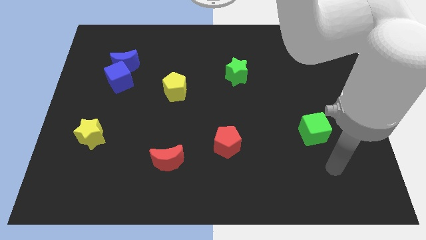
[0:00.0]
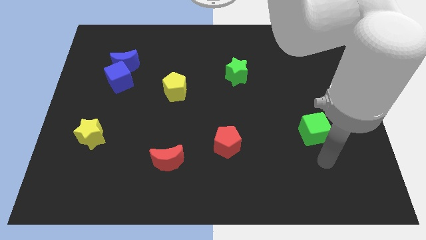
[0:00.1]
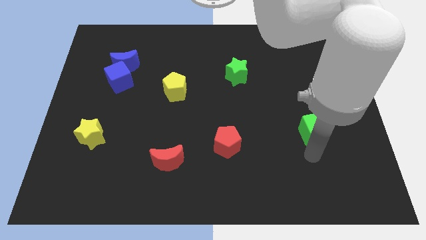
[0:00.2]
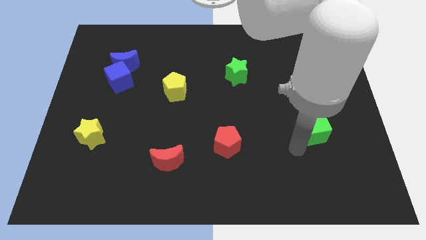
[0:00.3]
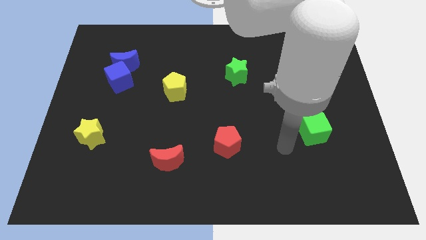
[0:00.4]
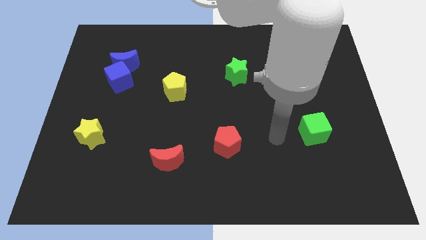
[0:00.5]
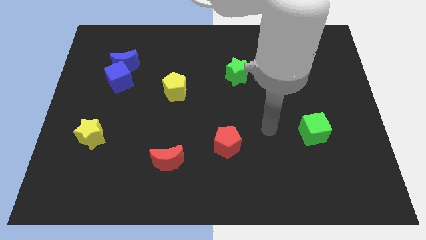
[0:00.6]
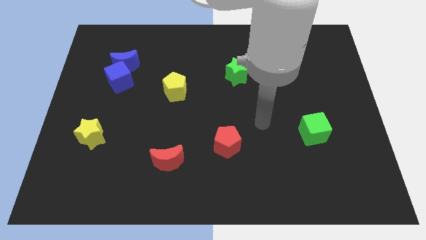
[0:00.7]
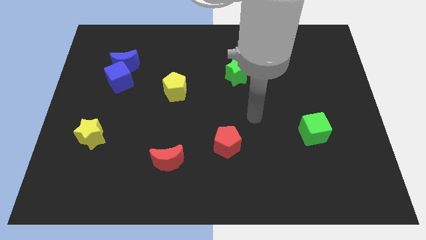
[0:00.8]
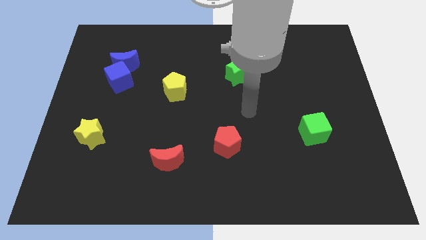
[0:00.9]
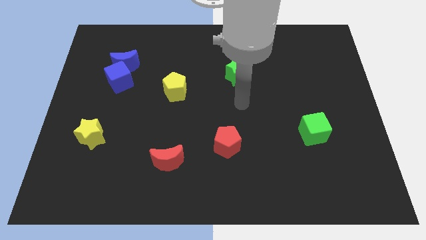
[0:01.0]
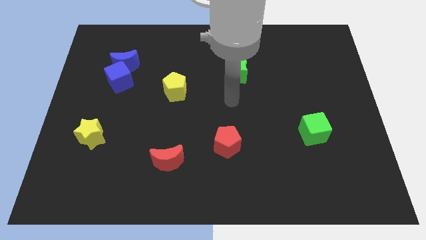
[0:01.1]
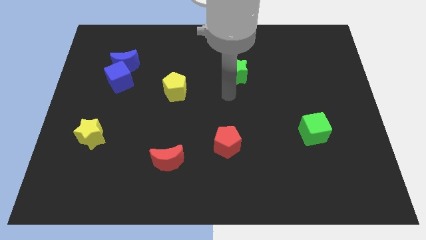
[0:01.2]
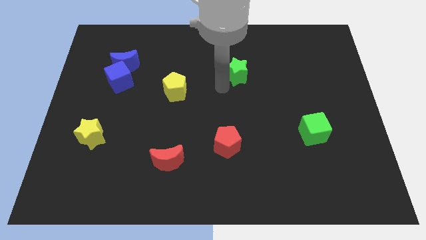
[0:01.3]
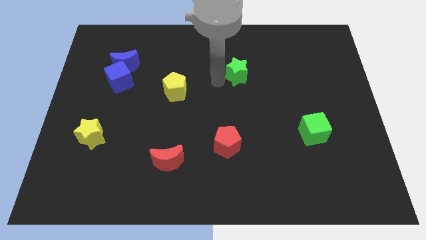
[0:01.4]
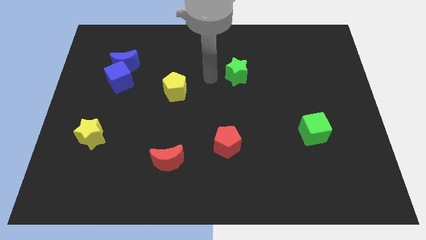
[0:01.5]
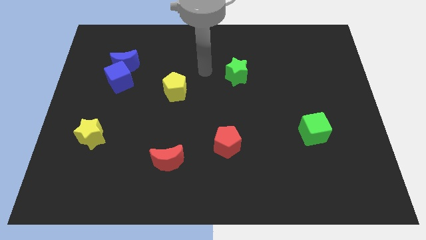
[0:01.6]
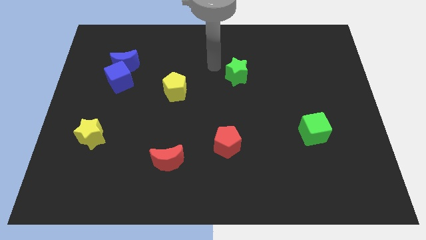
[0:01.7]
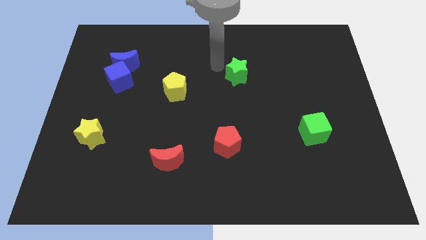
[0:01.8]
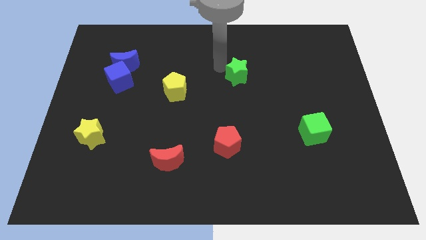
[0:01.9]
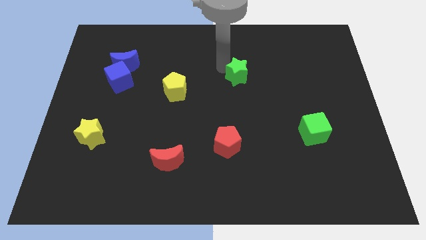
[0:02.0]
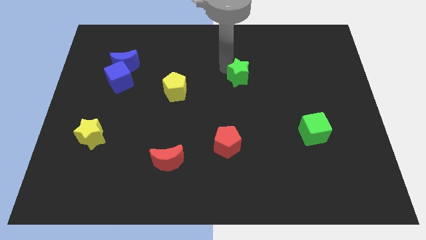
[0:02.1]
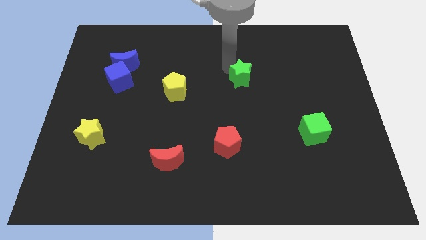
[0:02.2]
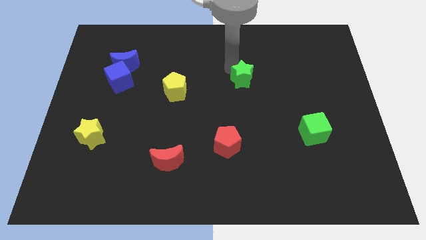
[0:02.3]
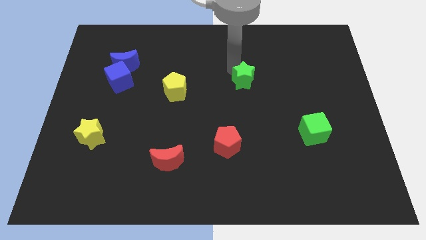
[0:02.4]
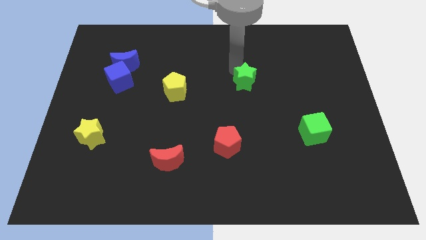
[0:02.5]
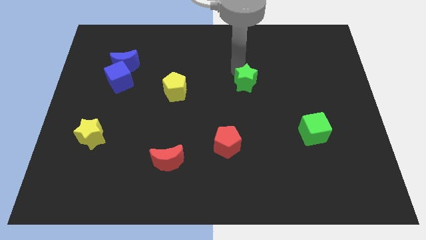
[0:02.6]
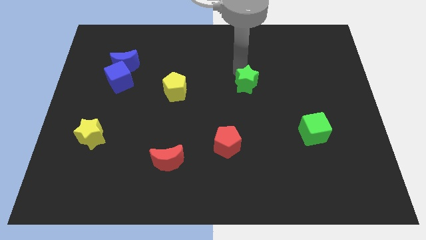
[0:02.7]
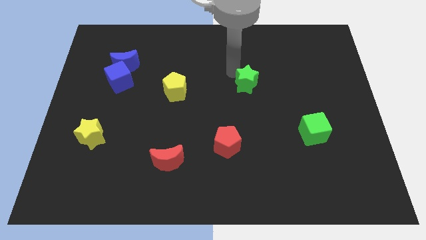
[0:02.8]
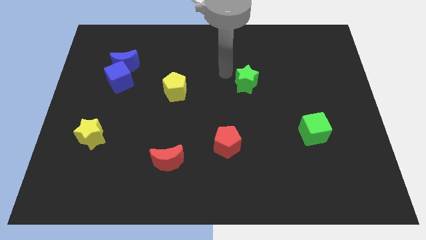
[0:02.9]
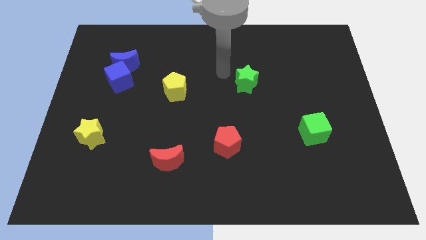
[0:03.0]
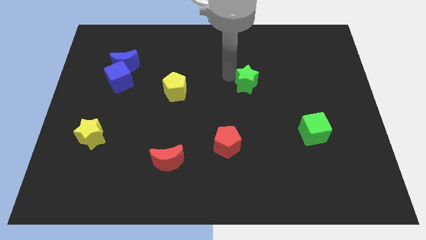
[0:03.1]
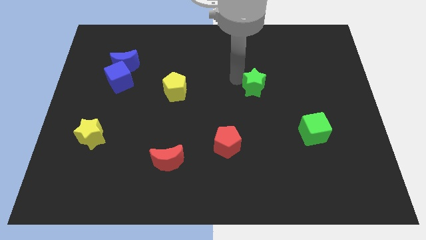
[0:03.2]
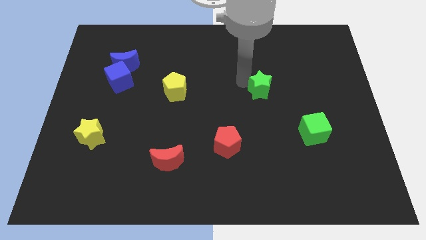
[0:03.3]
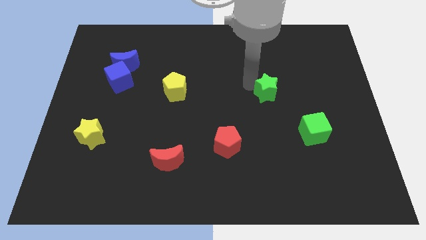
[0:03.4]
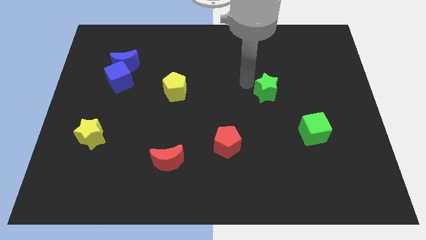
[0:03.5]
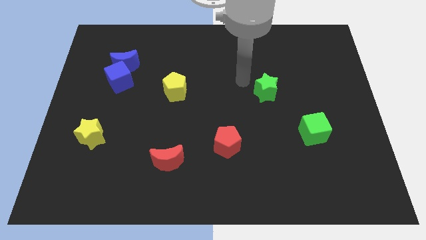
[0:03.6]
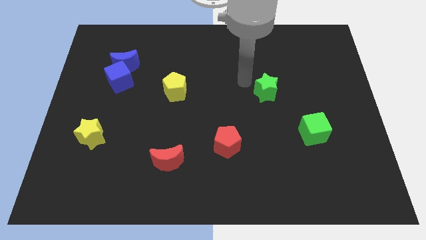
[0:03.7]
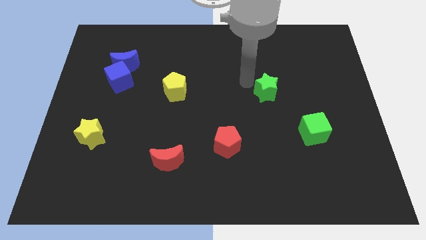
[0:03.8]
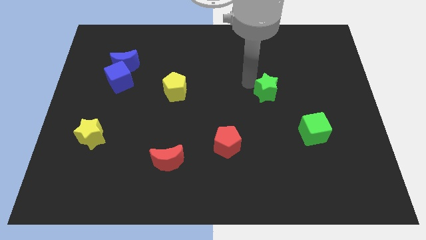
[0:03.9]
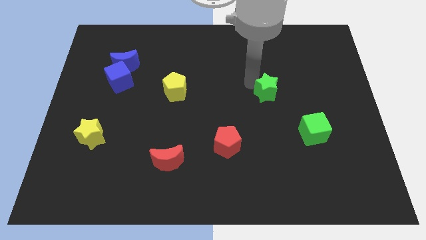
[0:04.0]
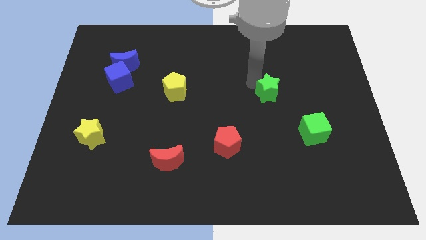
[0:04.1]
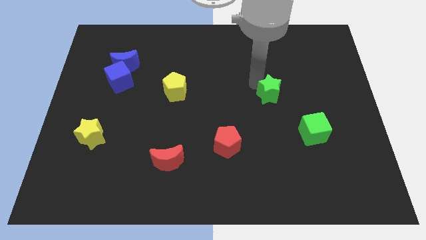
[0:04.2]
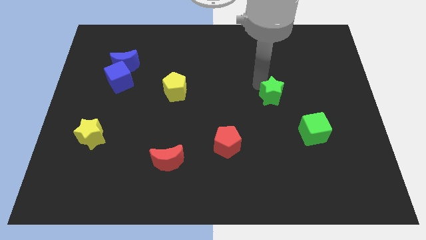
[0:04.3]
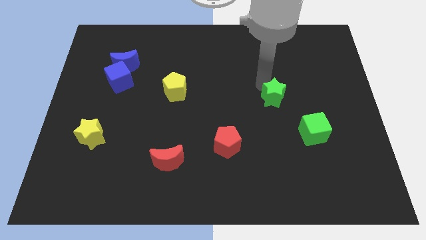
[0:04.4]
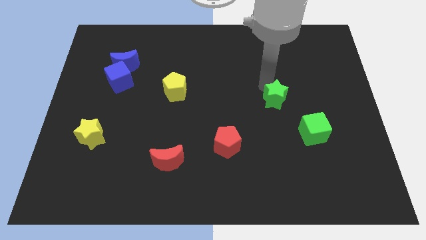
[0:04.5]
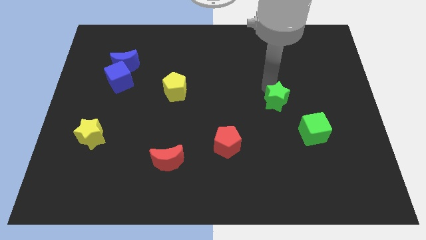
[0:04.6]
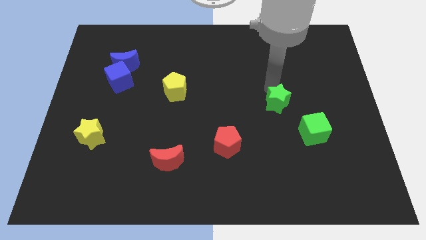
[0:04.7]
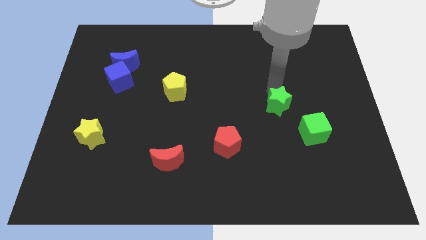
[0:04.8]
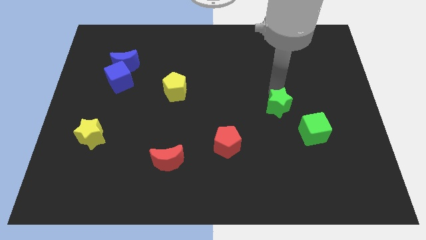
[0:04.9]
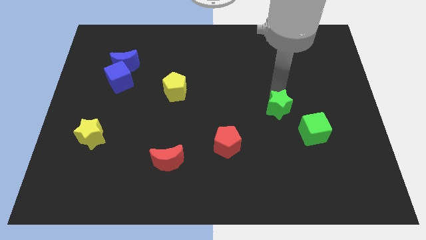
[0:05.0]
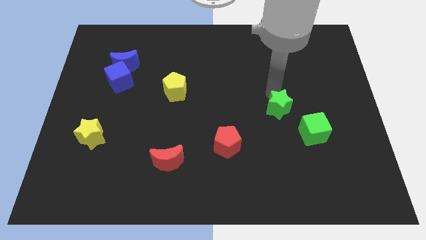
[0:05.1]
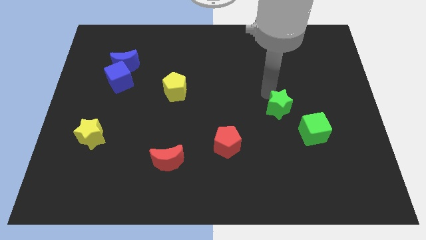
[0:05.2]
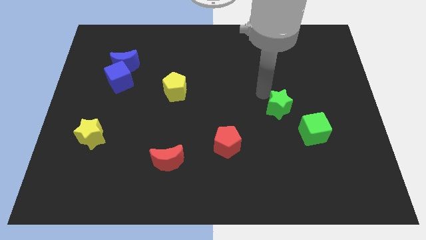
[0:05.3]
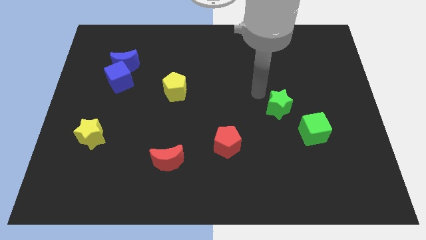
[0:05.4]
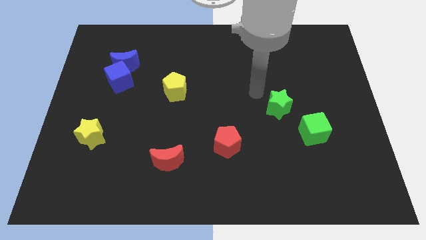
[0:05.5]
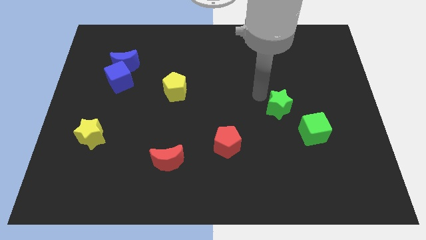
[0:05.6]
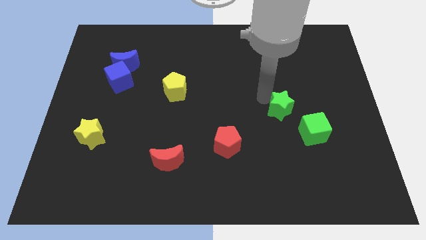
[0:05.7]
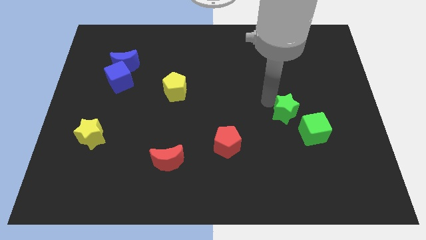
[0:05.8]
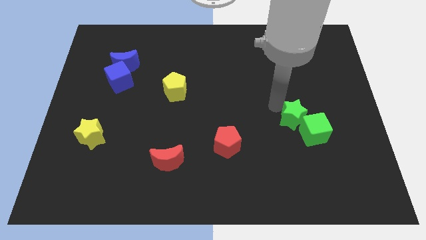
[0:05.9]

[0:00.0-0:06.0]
push the green star towards the green cube

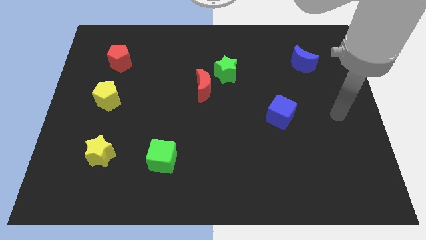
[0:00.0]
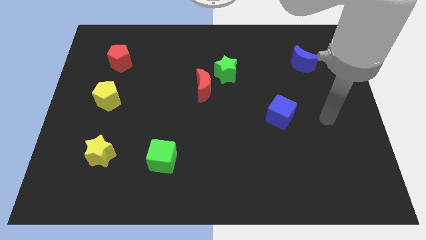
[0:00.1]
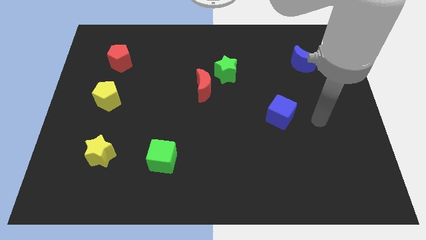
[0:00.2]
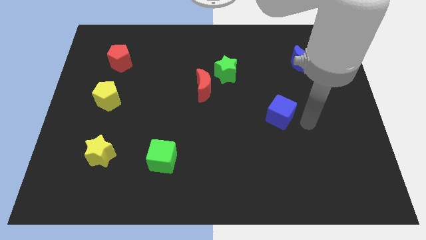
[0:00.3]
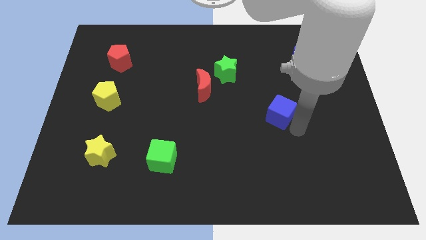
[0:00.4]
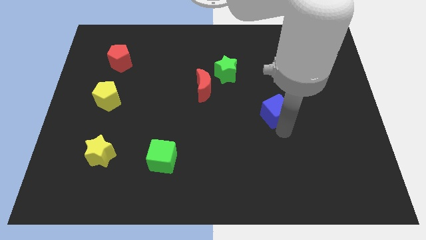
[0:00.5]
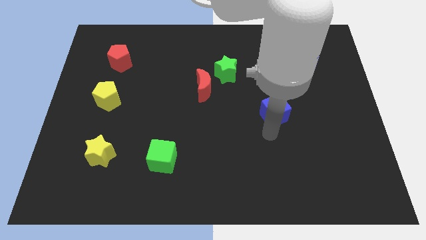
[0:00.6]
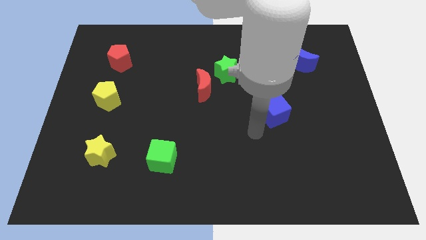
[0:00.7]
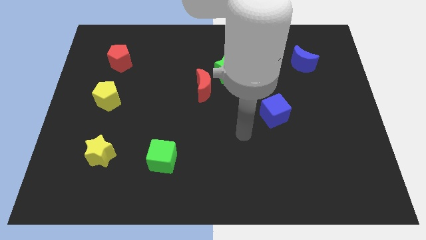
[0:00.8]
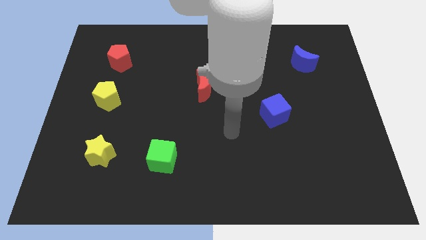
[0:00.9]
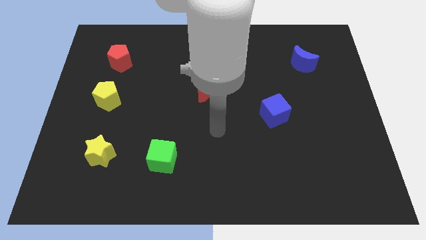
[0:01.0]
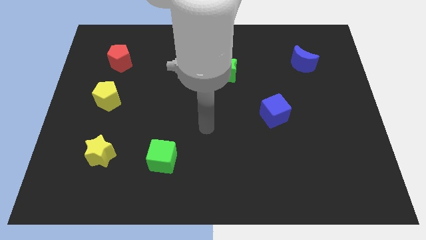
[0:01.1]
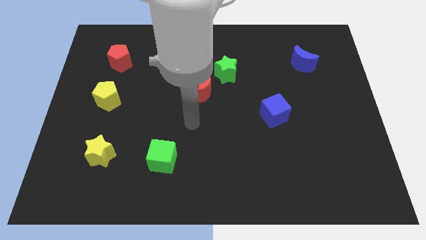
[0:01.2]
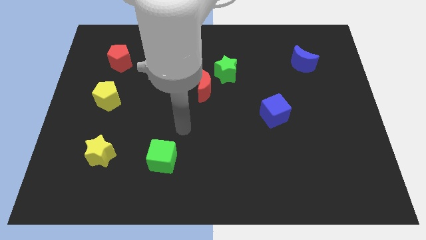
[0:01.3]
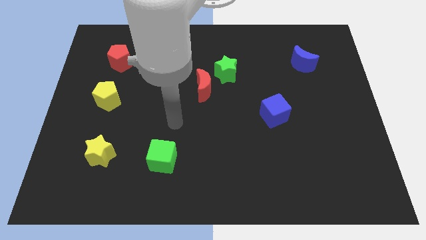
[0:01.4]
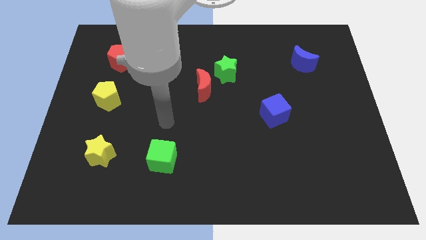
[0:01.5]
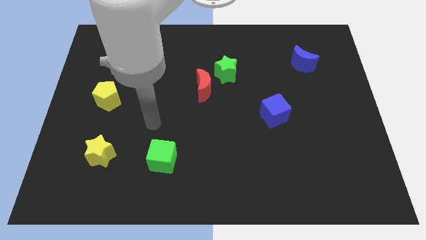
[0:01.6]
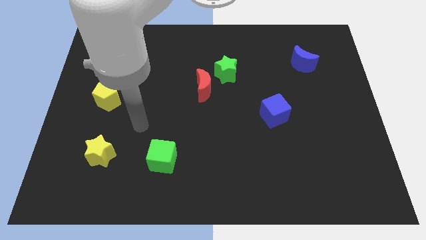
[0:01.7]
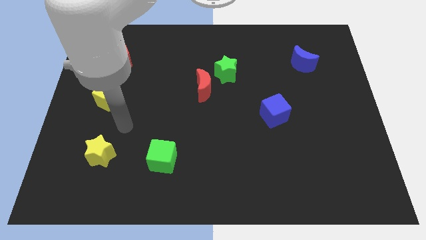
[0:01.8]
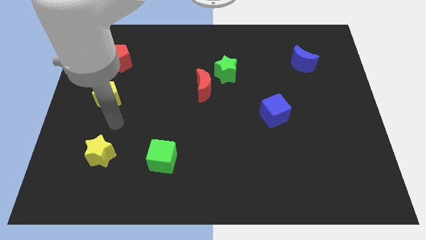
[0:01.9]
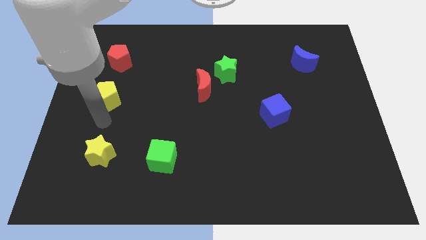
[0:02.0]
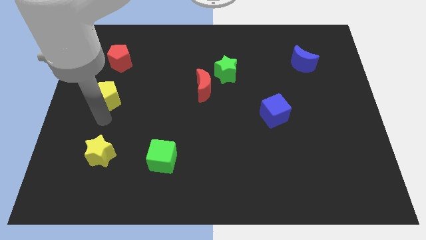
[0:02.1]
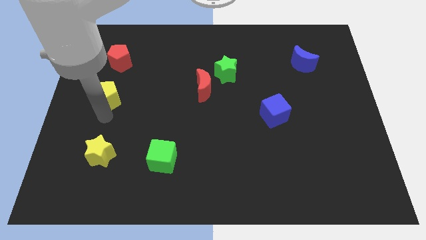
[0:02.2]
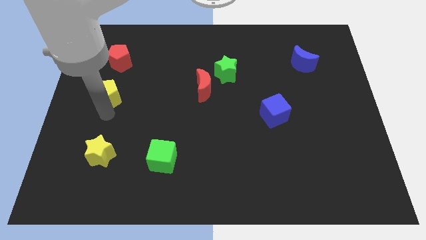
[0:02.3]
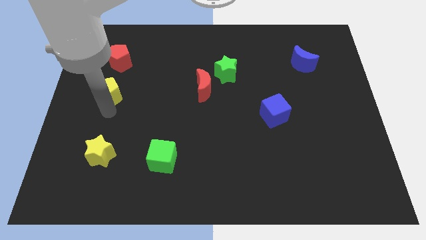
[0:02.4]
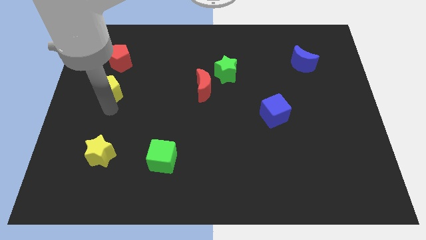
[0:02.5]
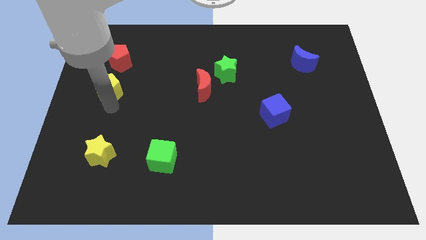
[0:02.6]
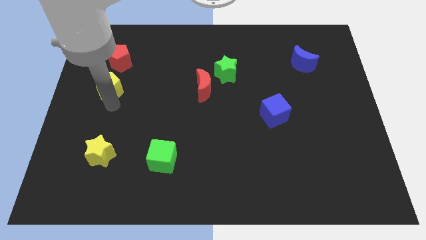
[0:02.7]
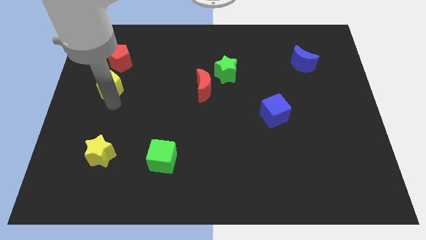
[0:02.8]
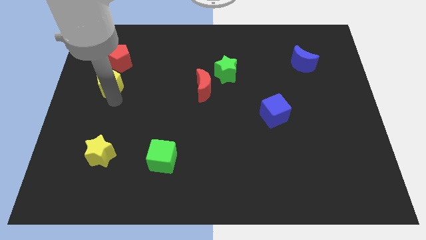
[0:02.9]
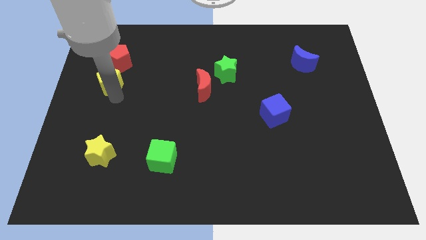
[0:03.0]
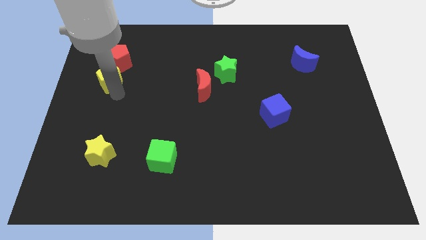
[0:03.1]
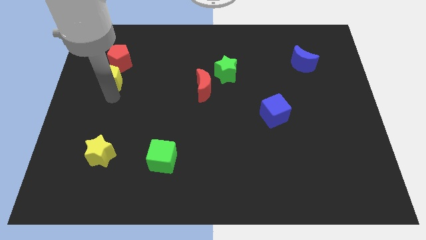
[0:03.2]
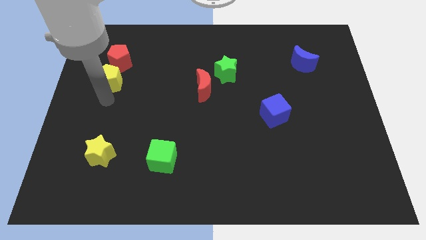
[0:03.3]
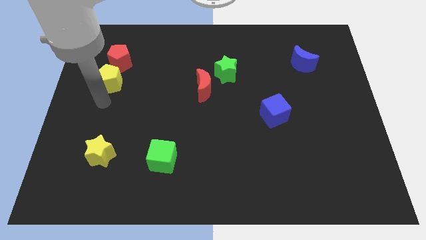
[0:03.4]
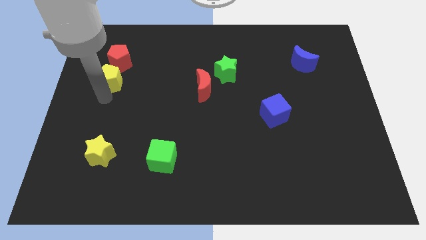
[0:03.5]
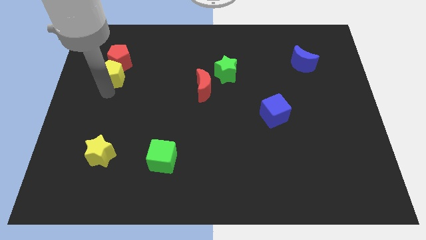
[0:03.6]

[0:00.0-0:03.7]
put the yellow pentagon towards the red pentagon
